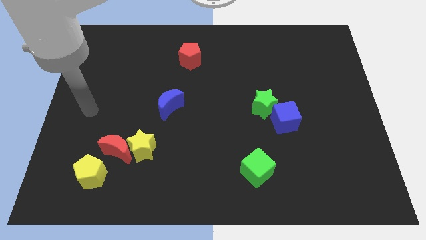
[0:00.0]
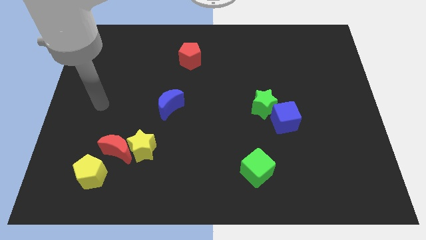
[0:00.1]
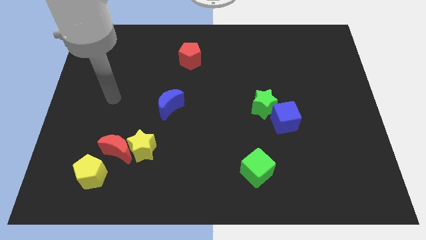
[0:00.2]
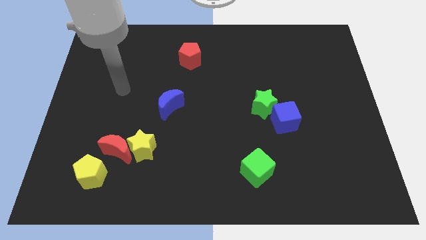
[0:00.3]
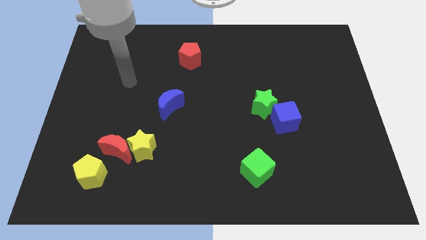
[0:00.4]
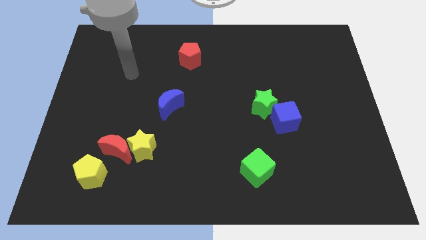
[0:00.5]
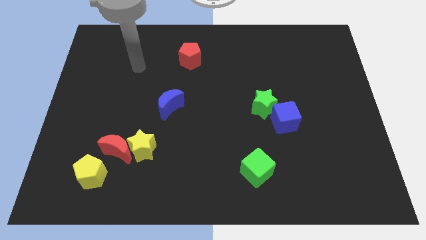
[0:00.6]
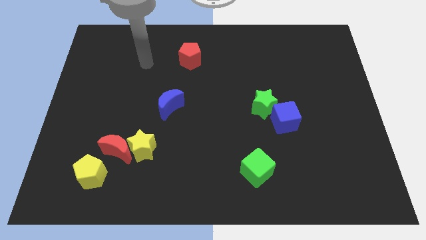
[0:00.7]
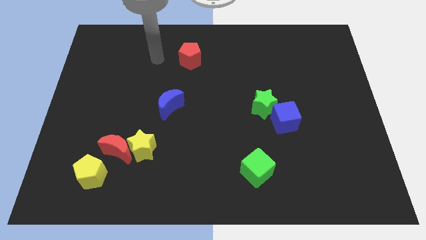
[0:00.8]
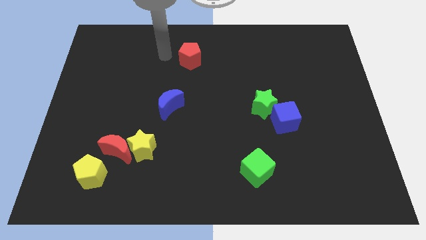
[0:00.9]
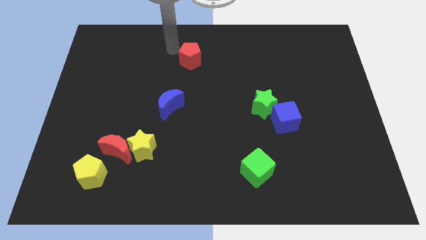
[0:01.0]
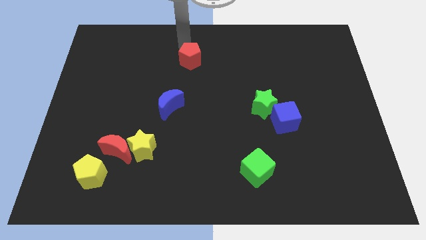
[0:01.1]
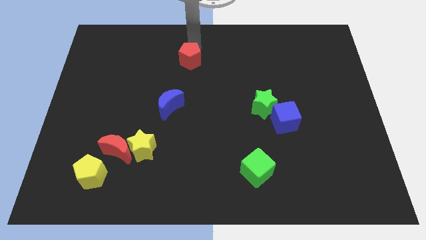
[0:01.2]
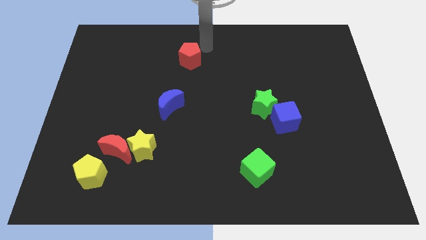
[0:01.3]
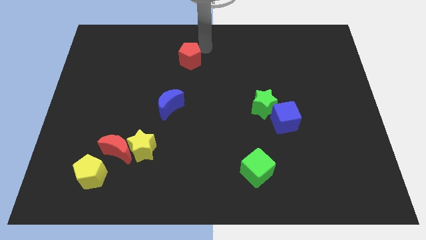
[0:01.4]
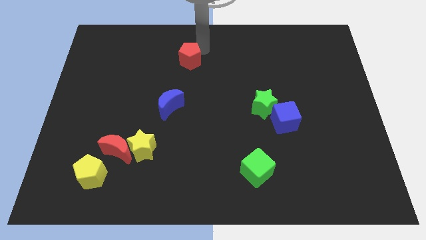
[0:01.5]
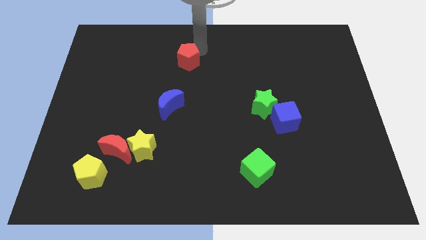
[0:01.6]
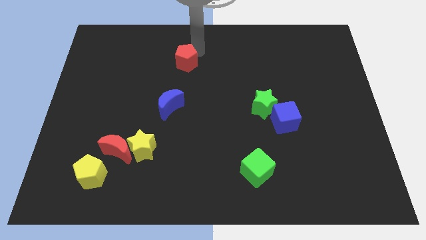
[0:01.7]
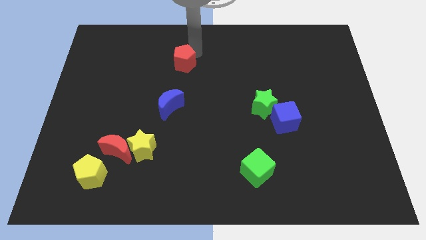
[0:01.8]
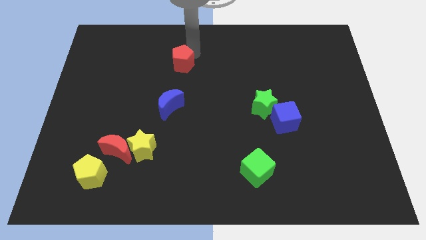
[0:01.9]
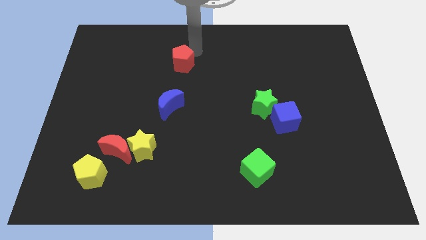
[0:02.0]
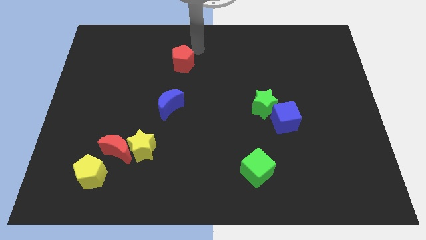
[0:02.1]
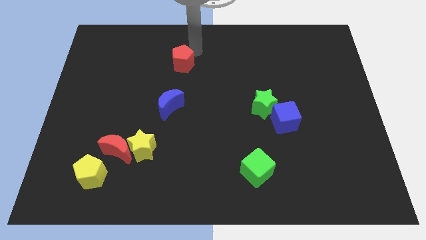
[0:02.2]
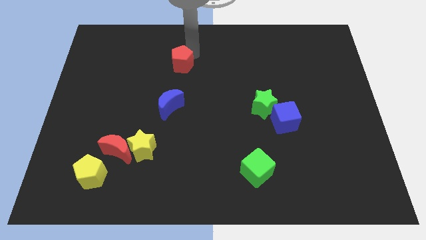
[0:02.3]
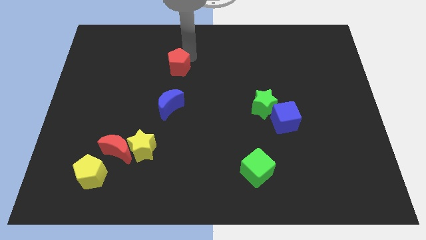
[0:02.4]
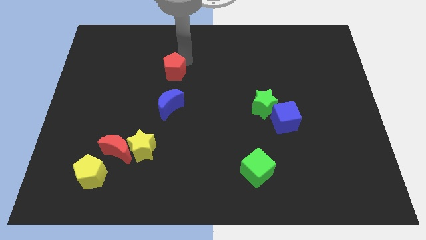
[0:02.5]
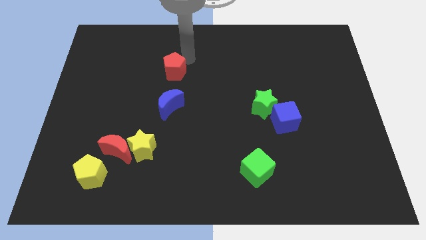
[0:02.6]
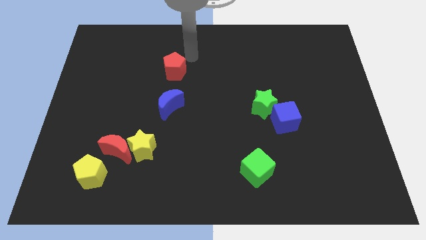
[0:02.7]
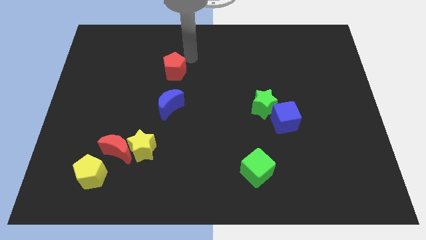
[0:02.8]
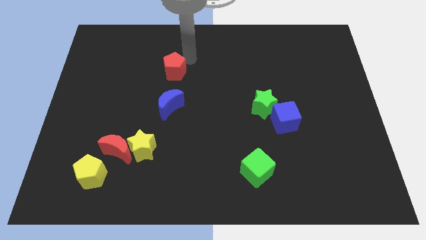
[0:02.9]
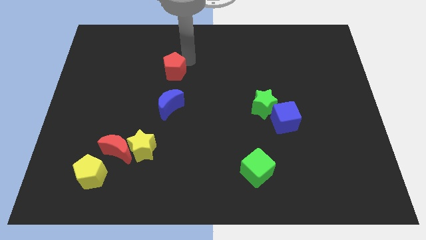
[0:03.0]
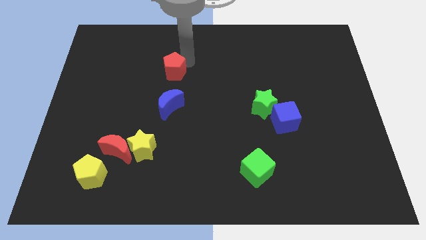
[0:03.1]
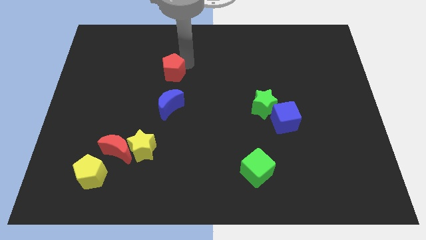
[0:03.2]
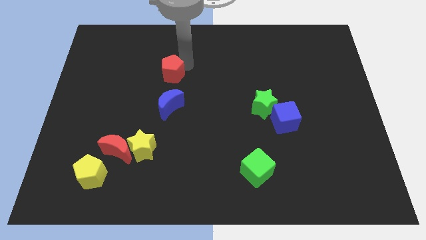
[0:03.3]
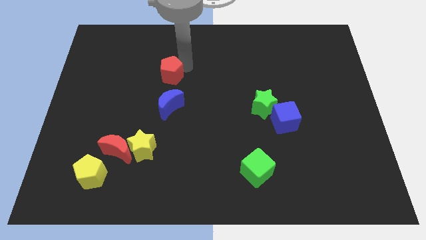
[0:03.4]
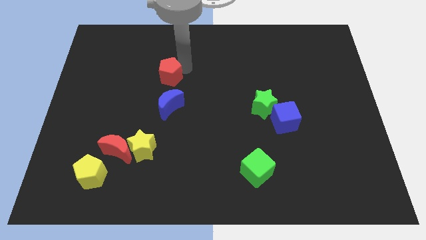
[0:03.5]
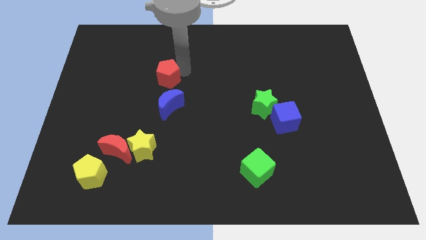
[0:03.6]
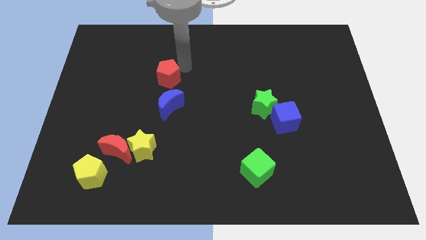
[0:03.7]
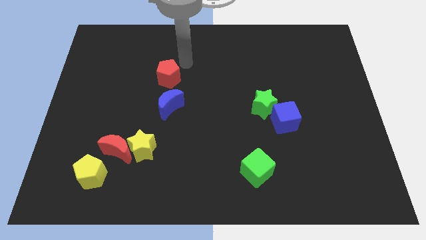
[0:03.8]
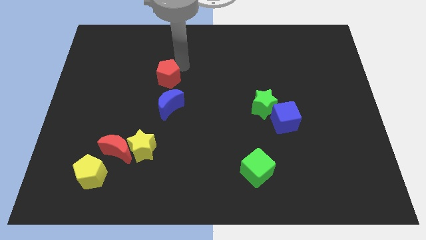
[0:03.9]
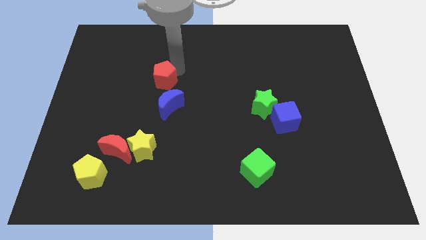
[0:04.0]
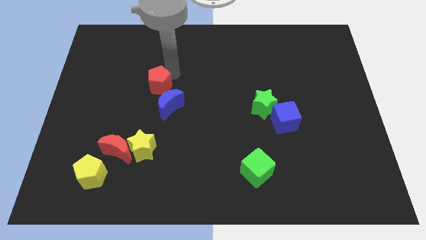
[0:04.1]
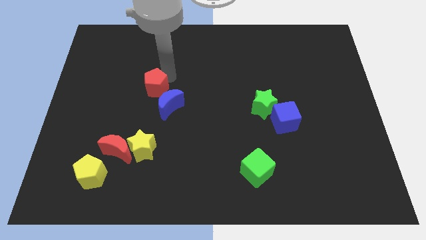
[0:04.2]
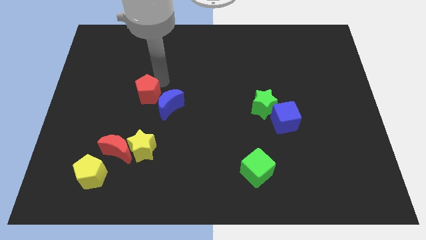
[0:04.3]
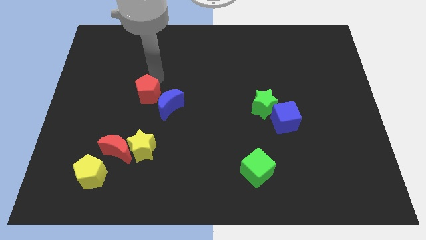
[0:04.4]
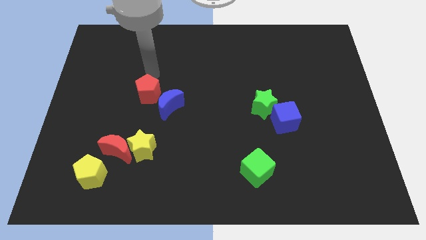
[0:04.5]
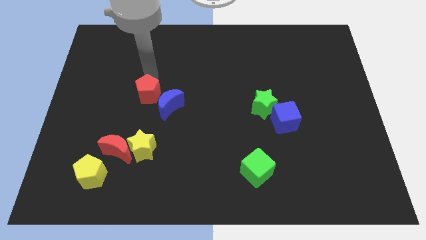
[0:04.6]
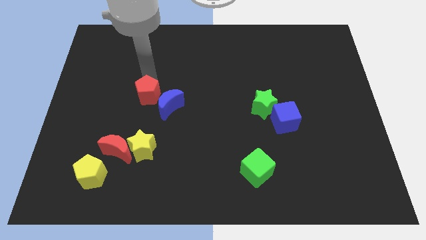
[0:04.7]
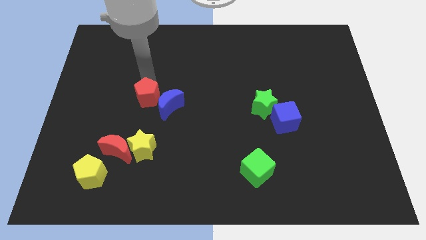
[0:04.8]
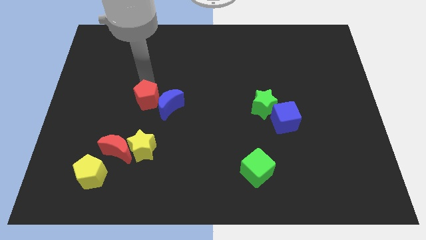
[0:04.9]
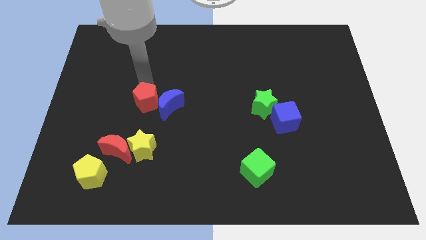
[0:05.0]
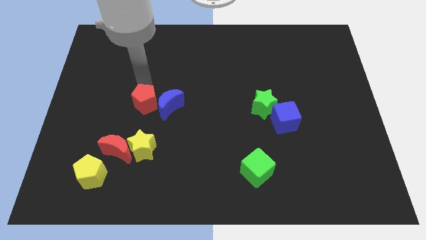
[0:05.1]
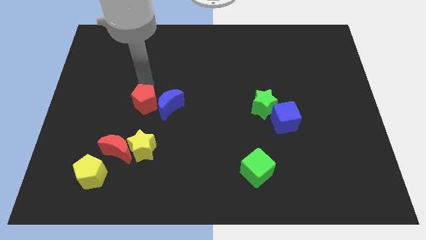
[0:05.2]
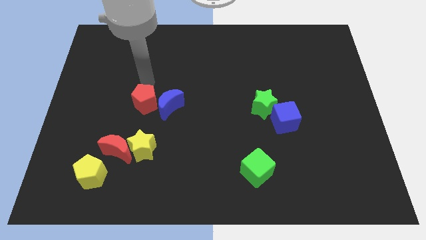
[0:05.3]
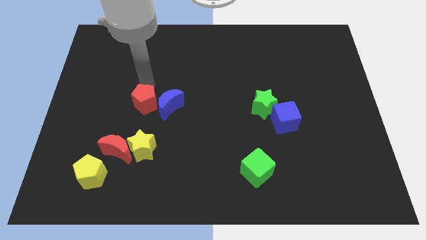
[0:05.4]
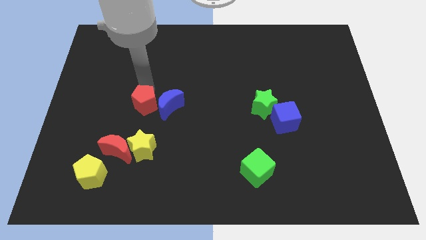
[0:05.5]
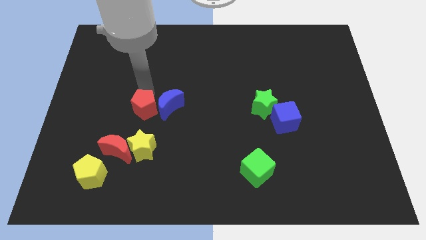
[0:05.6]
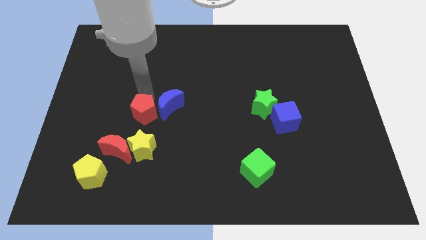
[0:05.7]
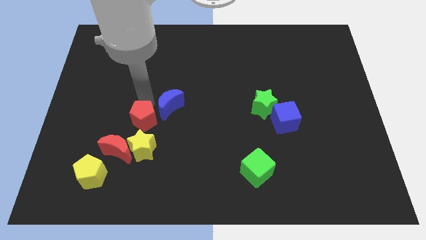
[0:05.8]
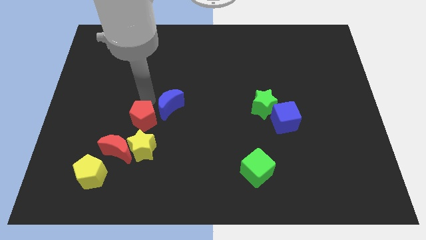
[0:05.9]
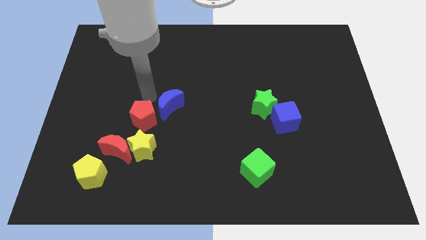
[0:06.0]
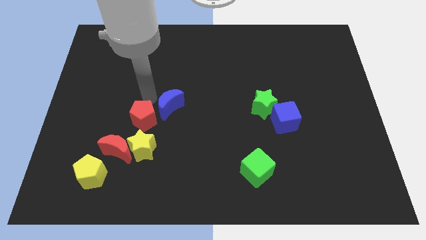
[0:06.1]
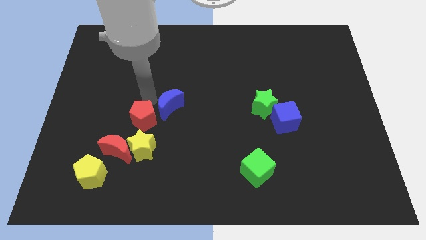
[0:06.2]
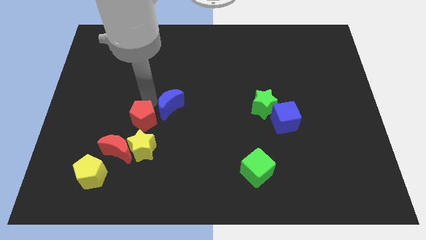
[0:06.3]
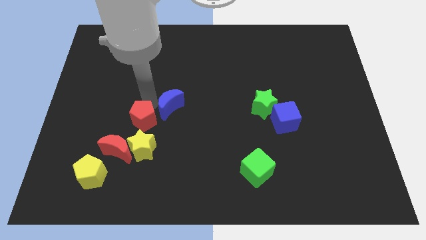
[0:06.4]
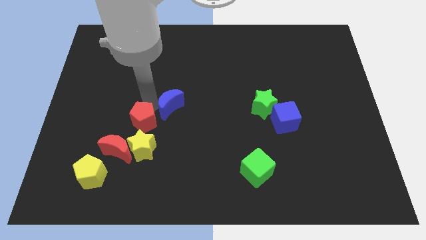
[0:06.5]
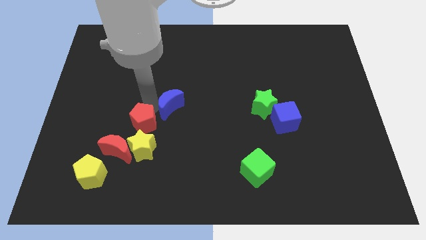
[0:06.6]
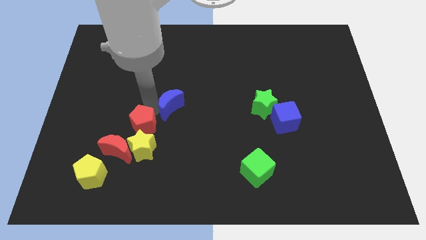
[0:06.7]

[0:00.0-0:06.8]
put the red pentagon towards the yellow star
